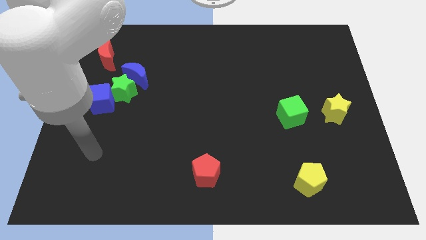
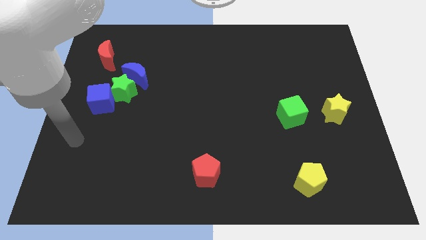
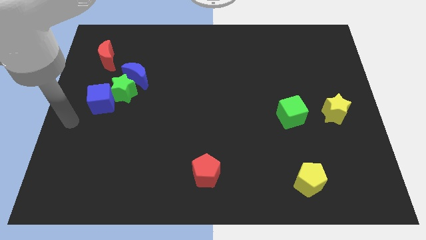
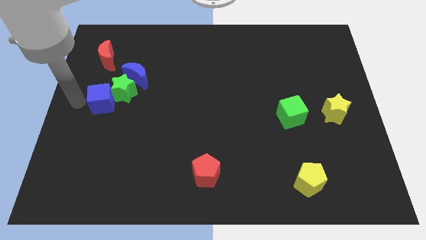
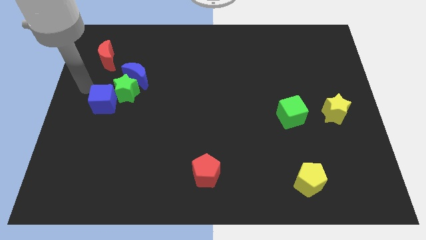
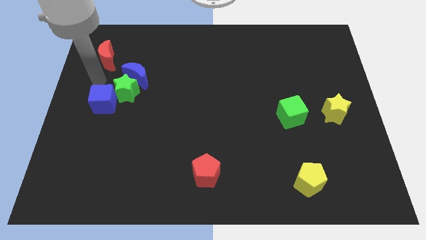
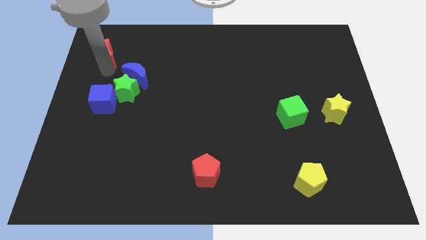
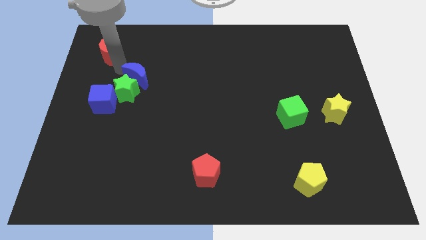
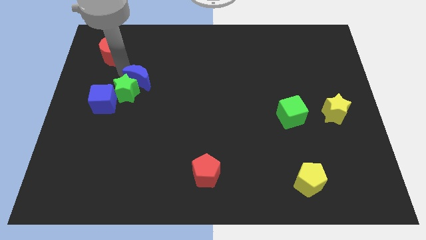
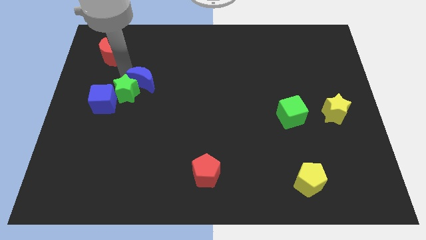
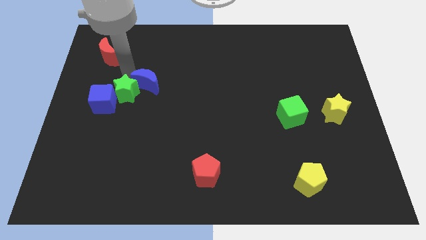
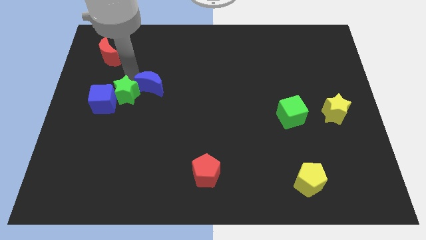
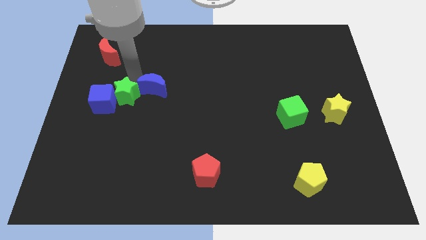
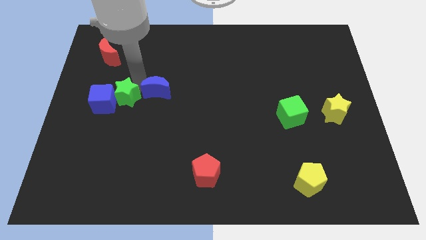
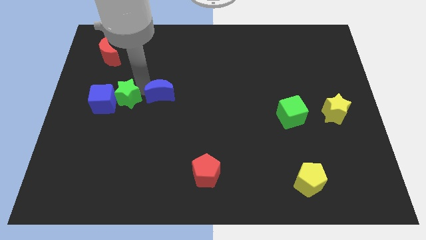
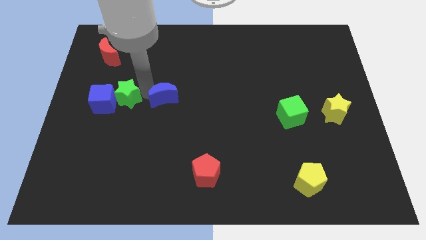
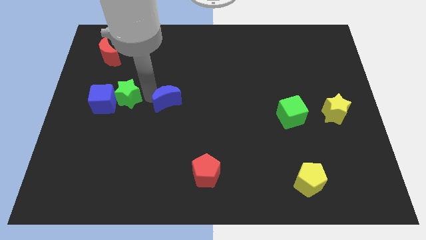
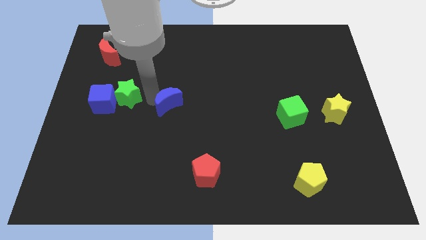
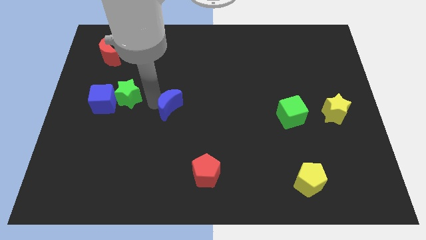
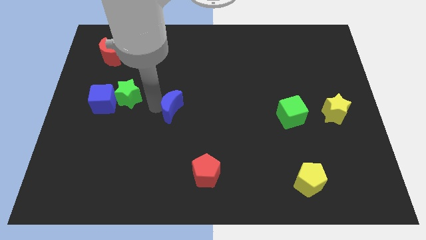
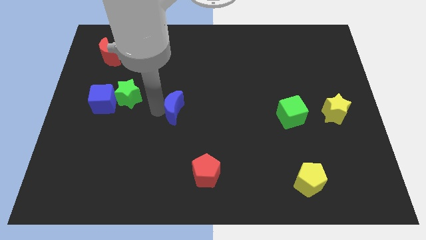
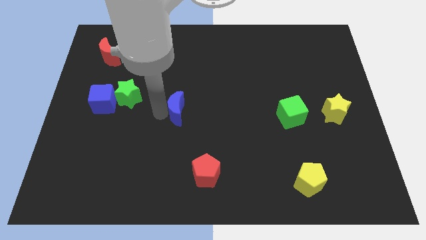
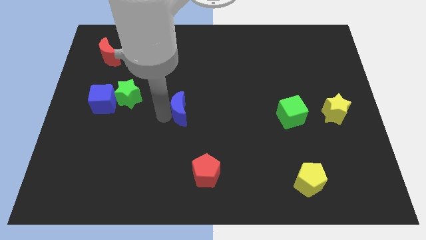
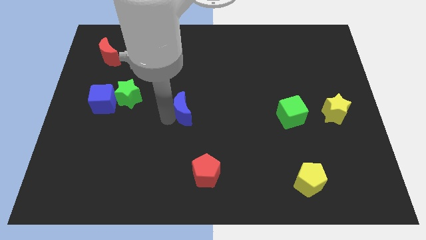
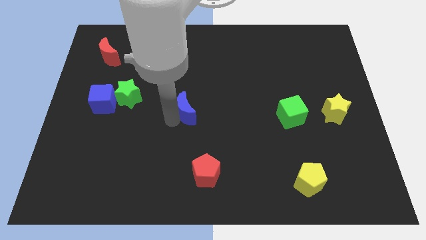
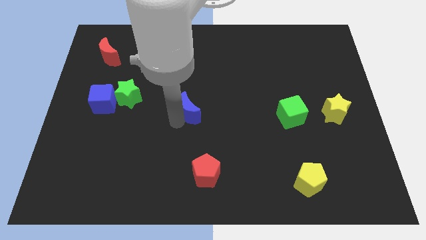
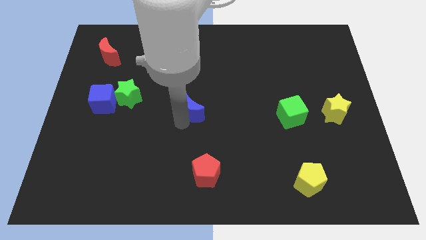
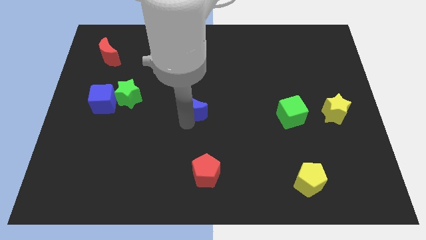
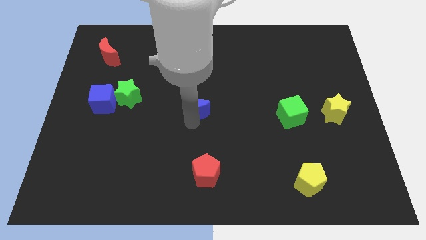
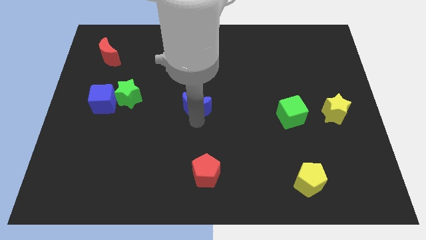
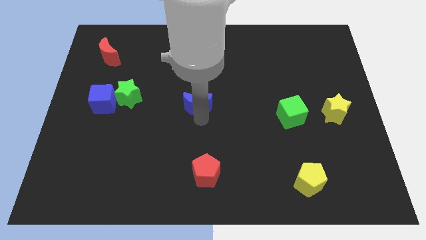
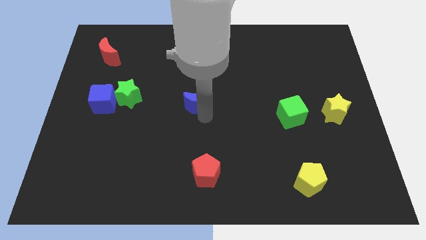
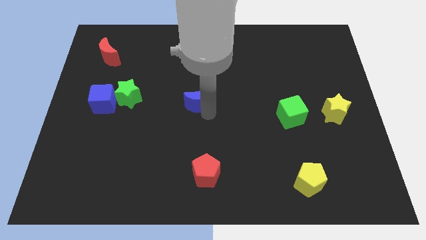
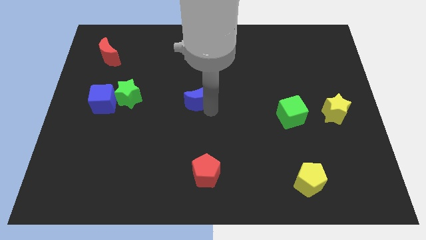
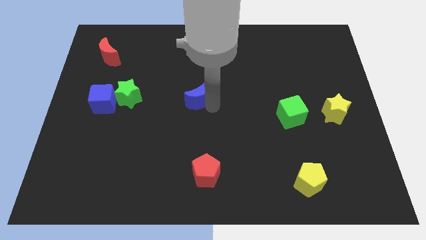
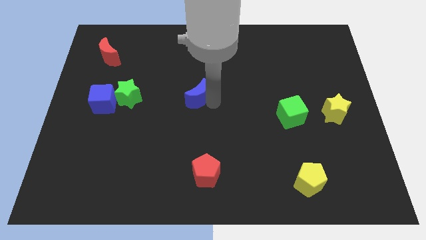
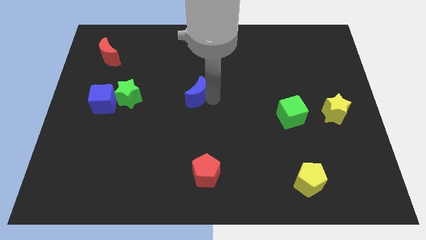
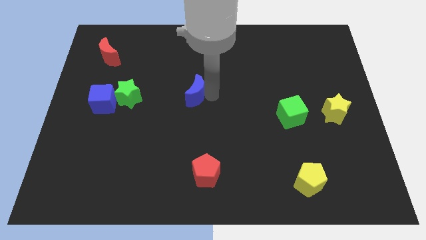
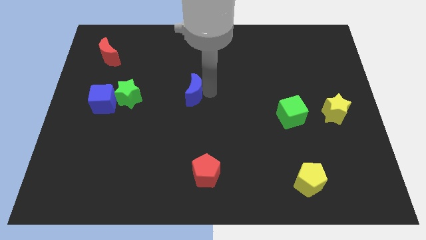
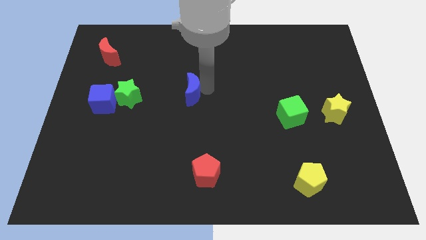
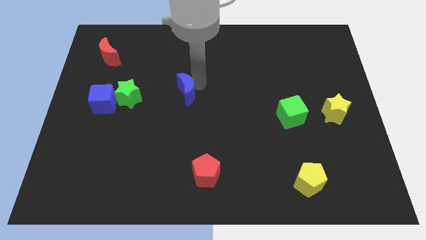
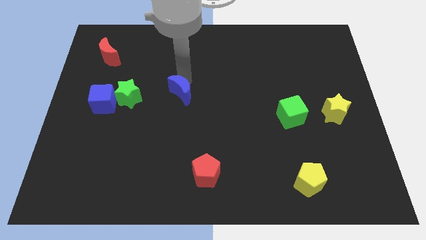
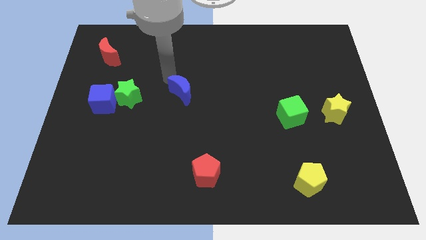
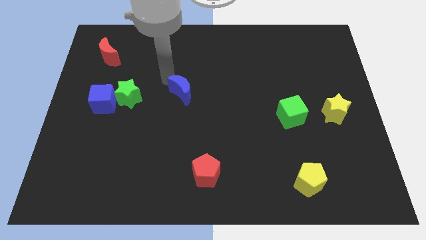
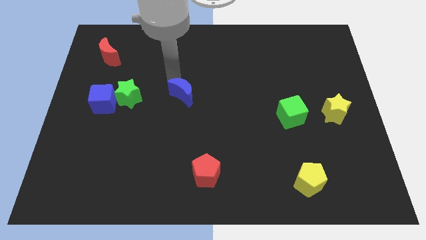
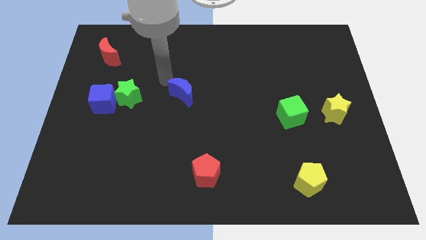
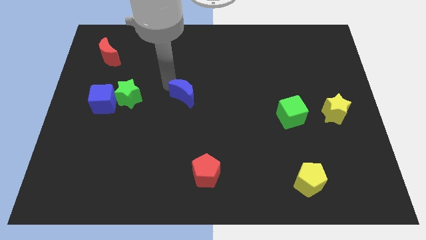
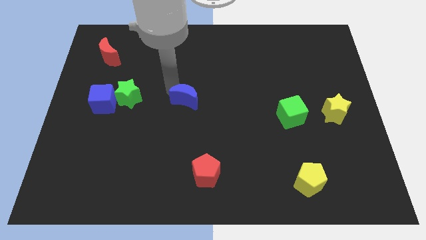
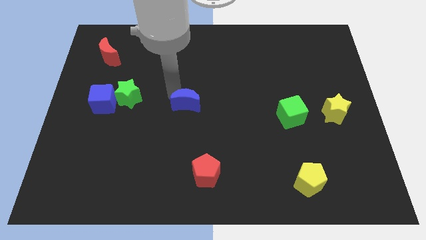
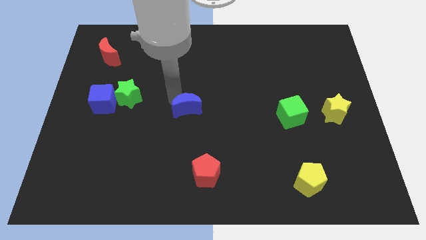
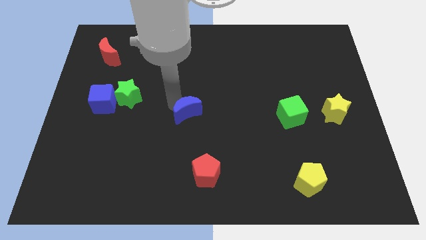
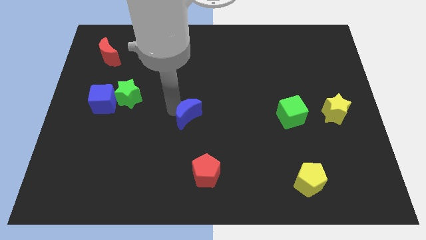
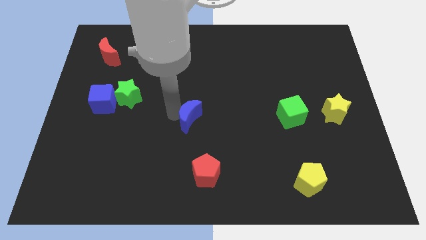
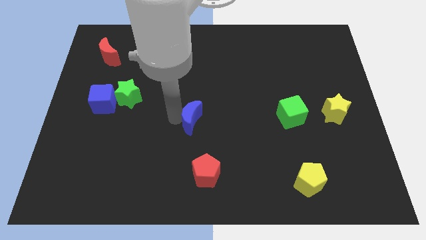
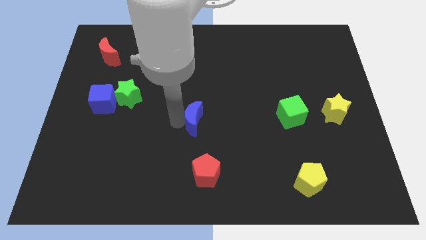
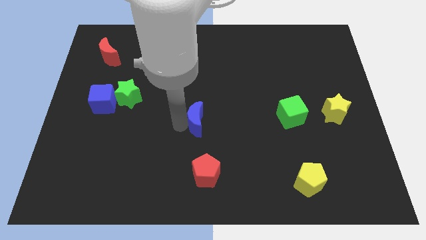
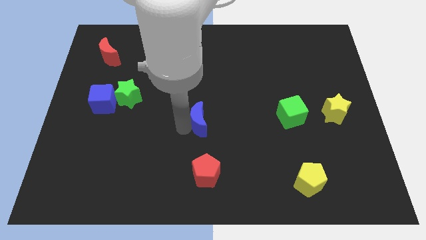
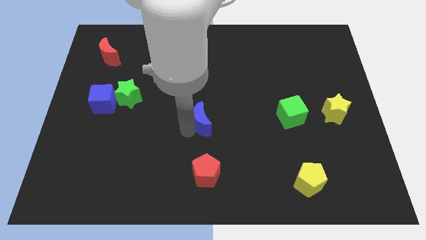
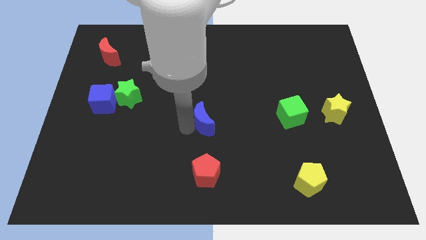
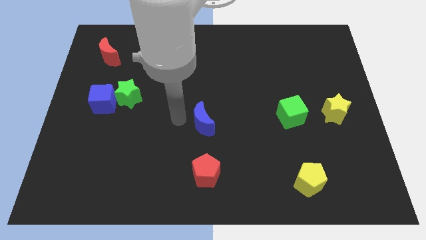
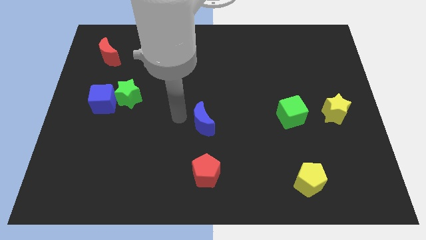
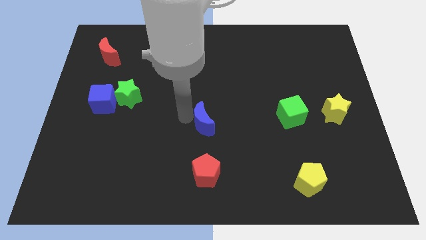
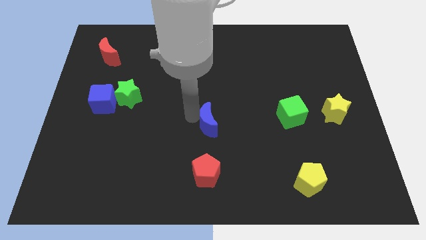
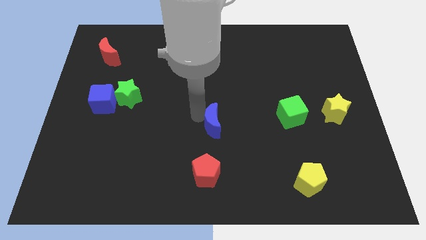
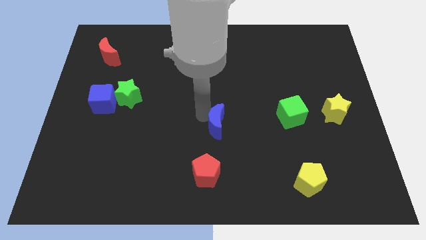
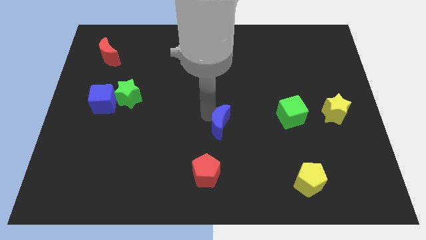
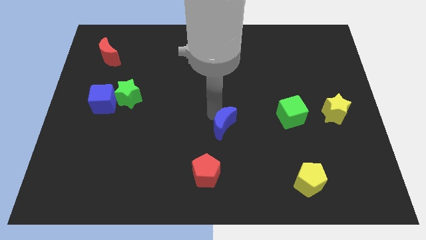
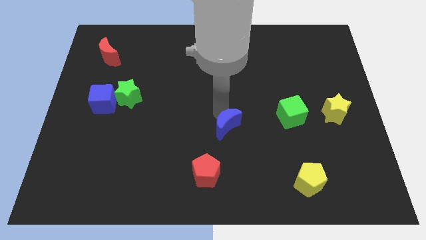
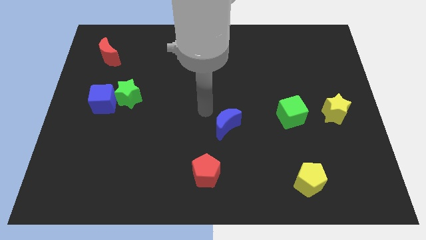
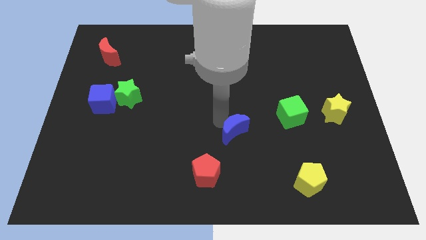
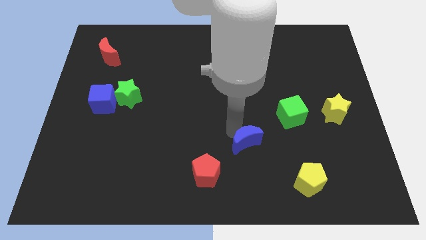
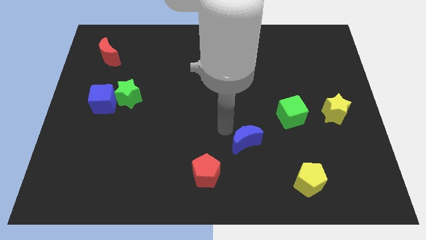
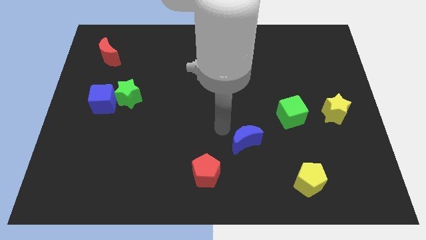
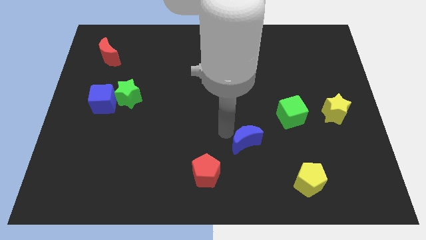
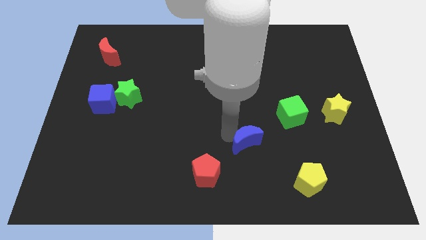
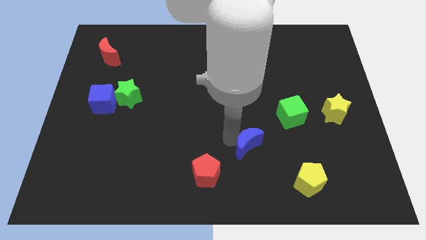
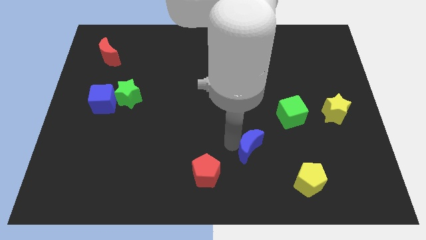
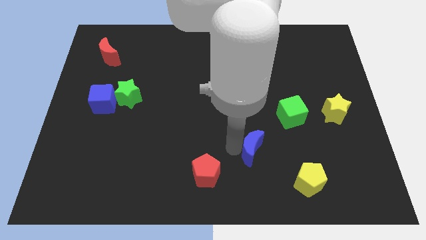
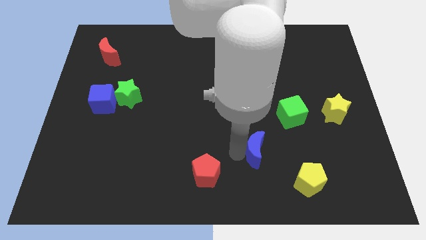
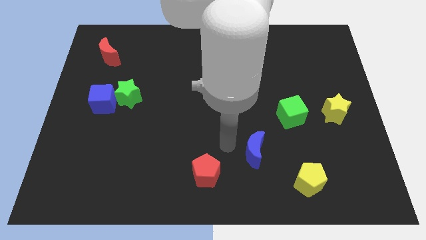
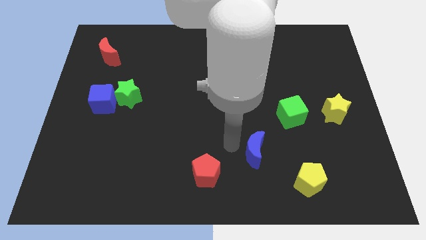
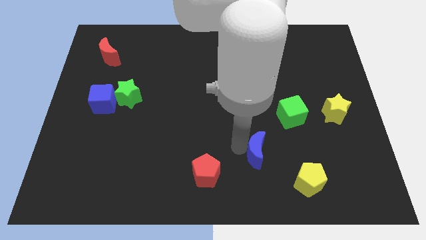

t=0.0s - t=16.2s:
move the blue moon to the top left side of the yellow pentagon
